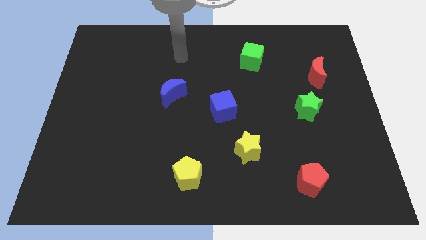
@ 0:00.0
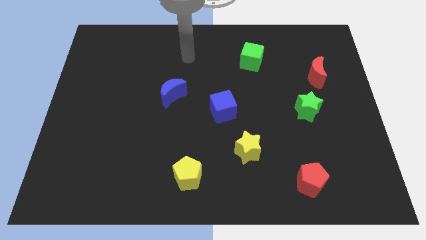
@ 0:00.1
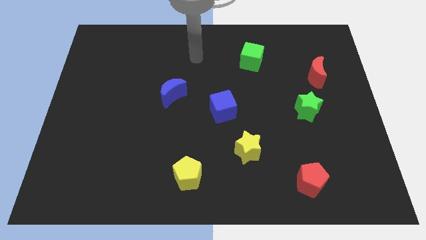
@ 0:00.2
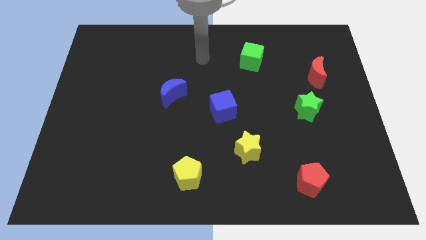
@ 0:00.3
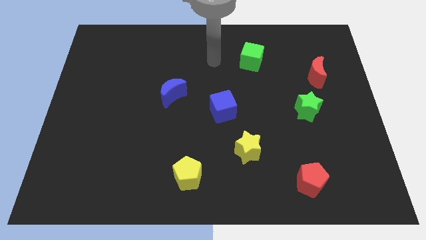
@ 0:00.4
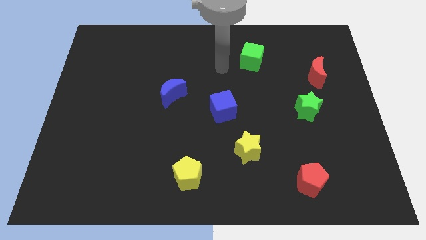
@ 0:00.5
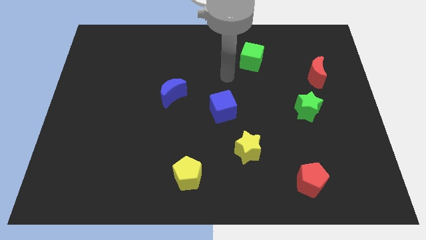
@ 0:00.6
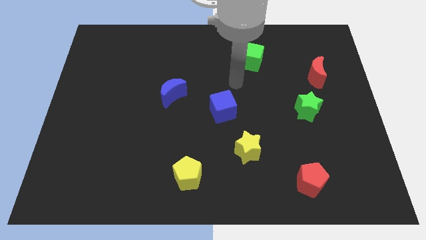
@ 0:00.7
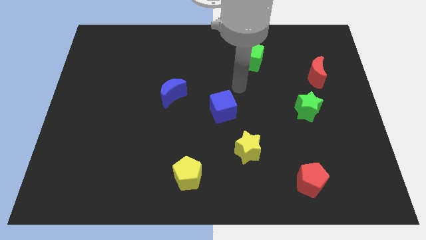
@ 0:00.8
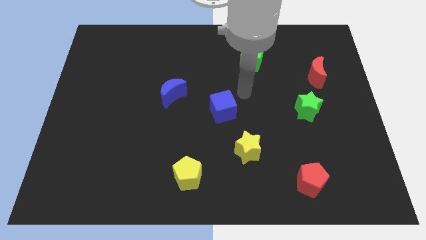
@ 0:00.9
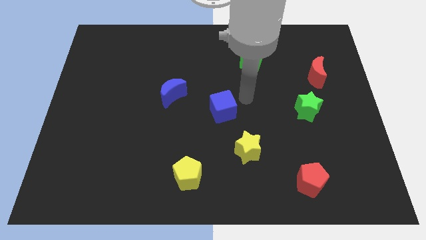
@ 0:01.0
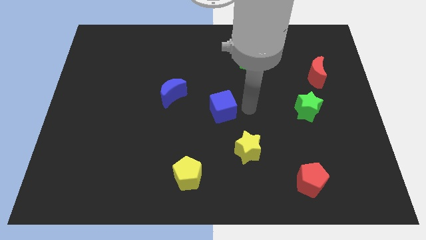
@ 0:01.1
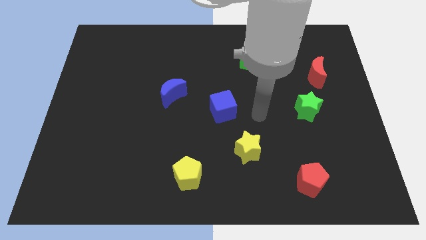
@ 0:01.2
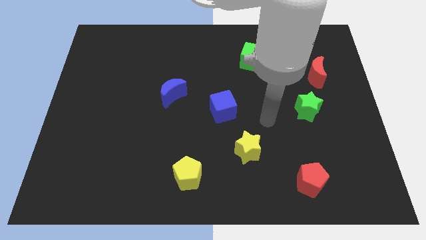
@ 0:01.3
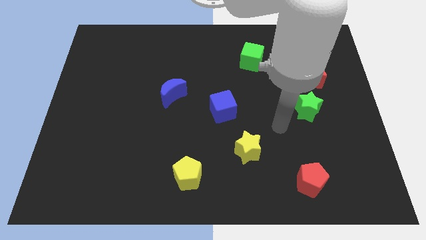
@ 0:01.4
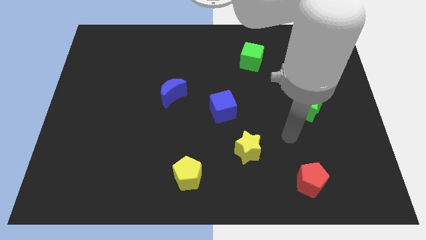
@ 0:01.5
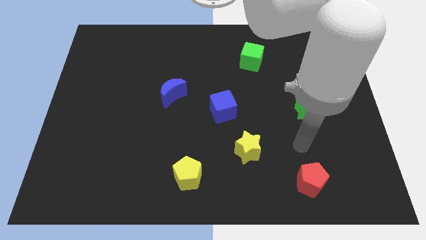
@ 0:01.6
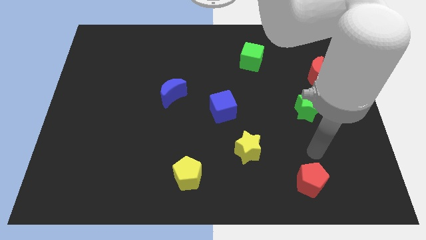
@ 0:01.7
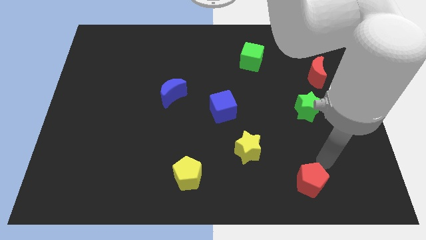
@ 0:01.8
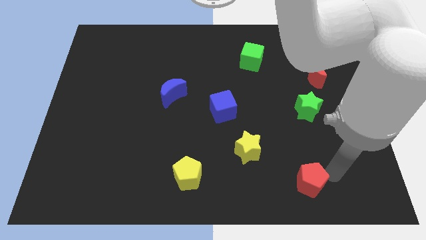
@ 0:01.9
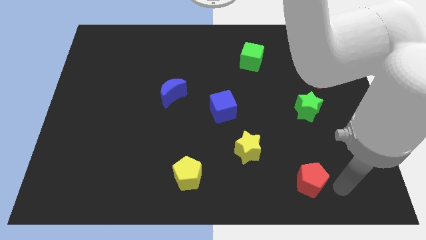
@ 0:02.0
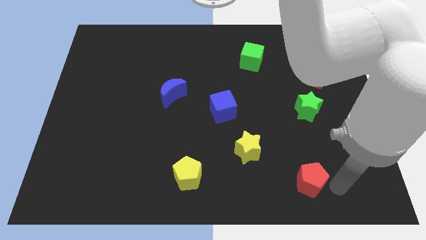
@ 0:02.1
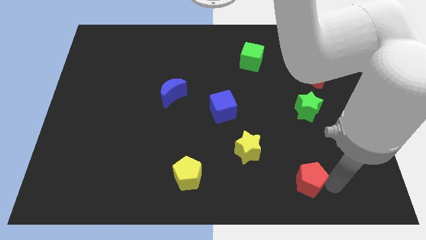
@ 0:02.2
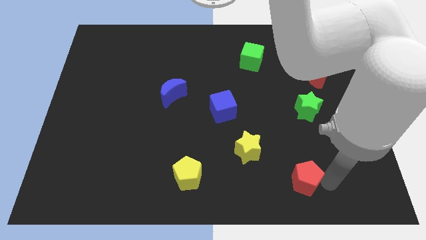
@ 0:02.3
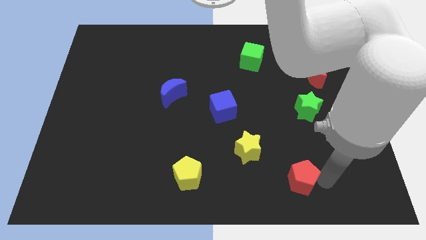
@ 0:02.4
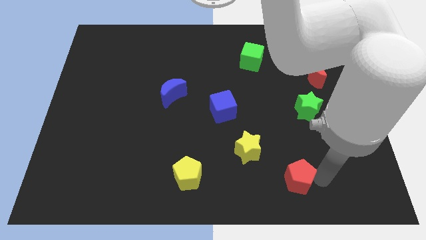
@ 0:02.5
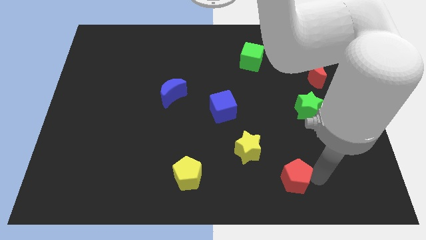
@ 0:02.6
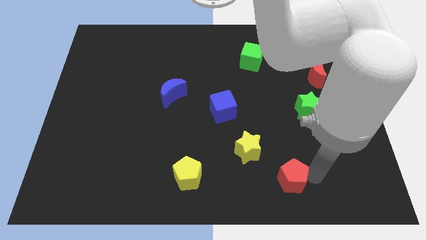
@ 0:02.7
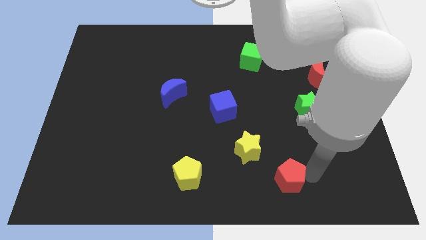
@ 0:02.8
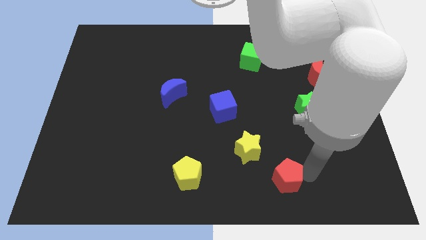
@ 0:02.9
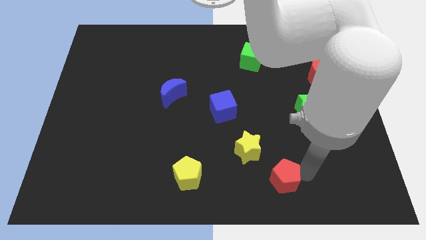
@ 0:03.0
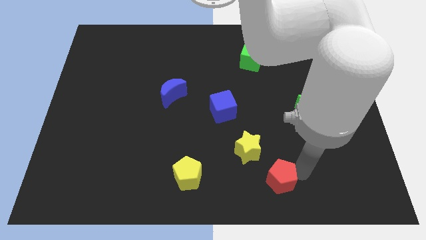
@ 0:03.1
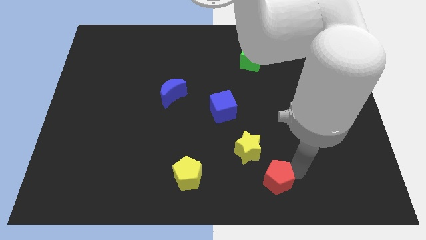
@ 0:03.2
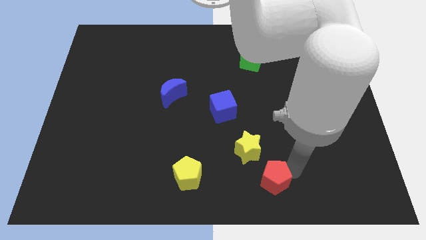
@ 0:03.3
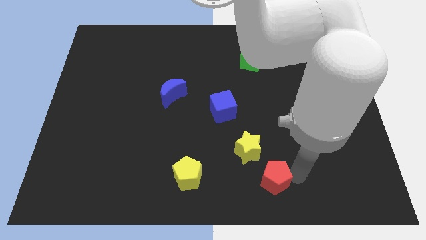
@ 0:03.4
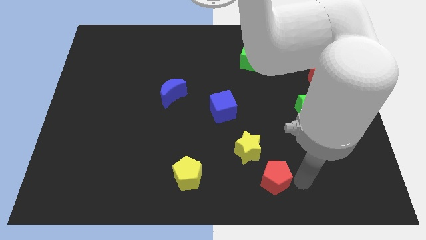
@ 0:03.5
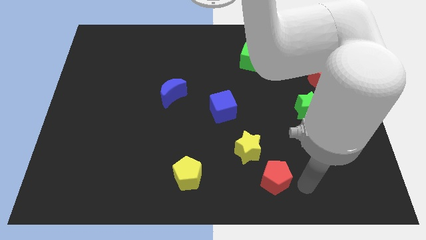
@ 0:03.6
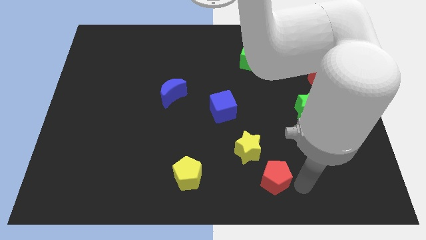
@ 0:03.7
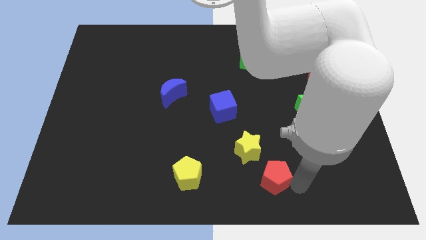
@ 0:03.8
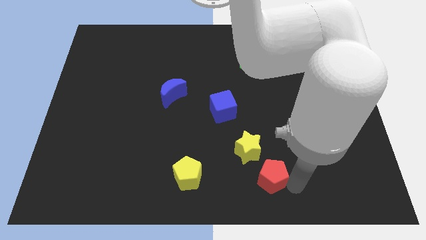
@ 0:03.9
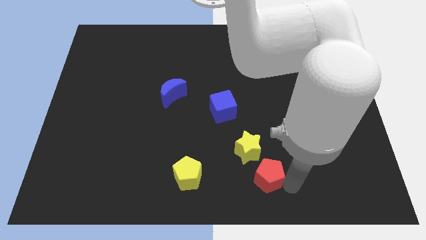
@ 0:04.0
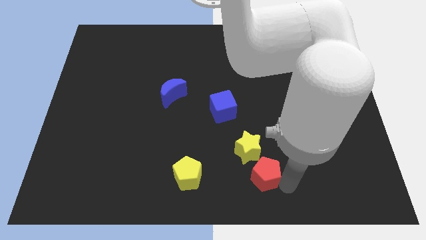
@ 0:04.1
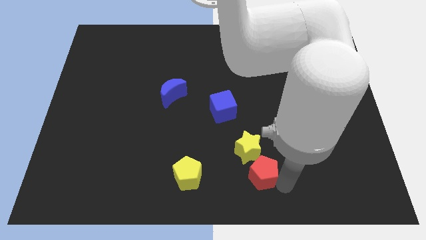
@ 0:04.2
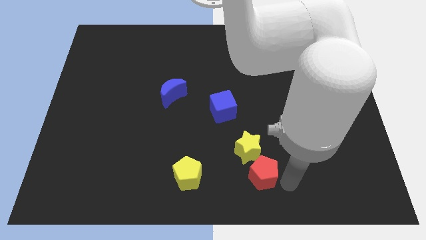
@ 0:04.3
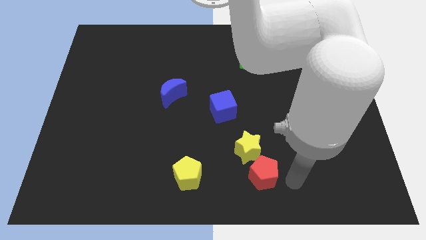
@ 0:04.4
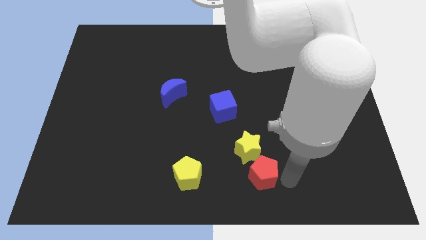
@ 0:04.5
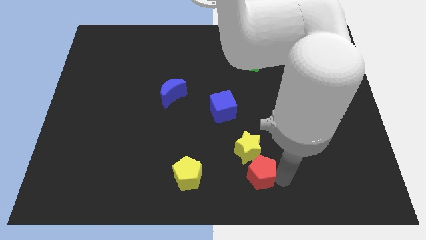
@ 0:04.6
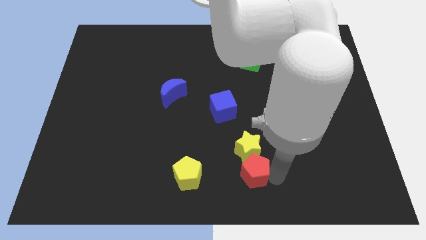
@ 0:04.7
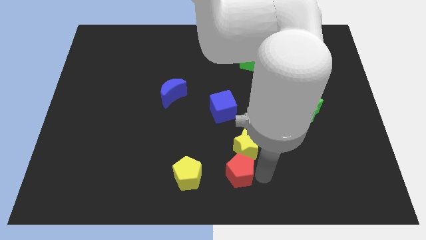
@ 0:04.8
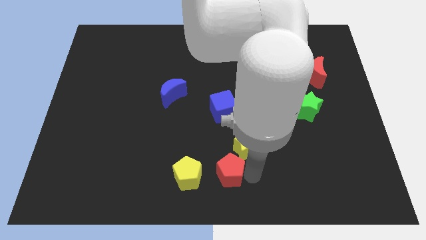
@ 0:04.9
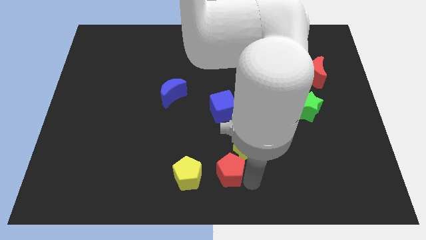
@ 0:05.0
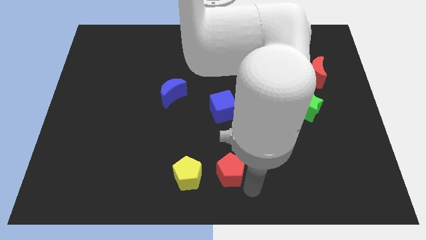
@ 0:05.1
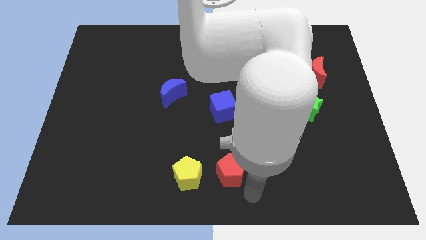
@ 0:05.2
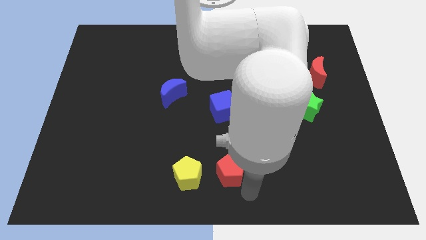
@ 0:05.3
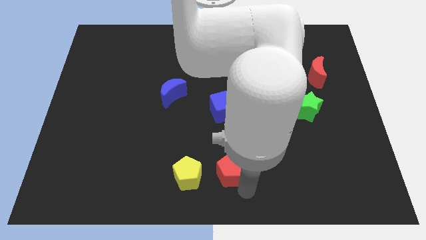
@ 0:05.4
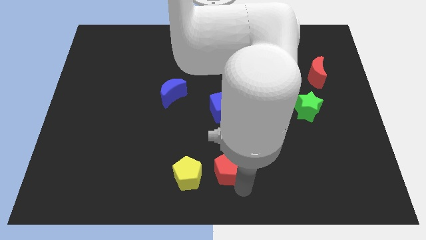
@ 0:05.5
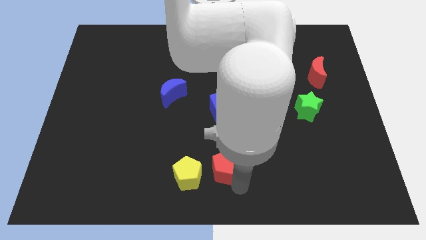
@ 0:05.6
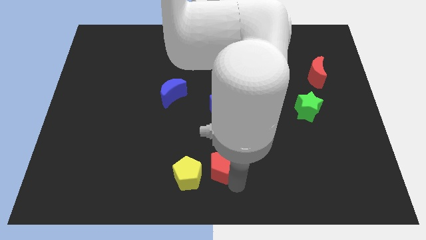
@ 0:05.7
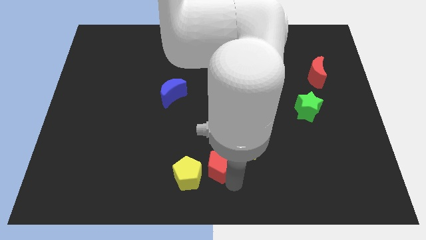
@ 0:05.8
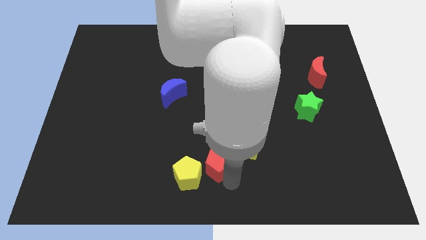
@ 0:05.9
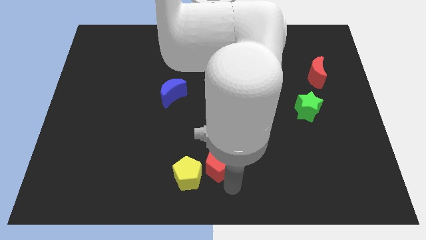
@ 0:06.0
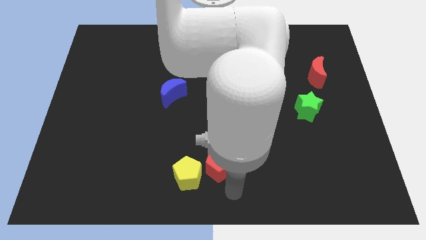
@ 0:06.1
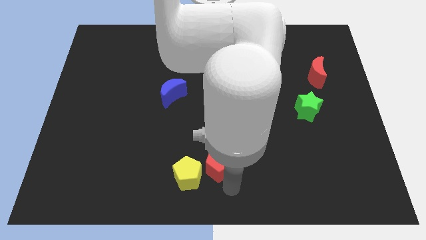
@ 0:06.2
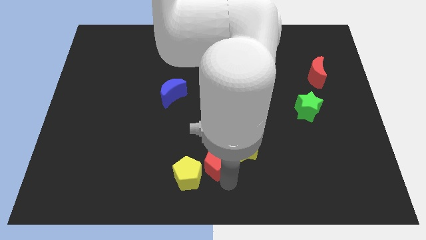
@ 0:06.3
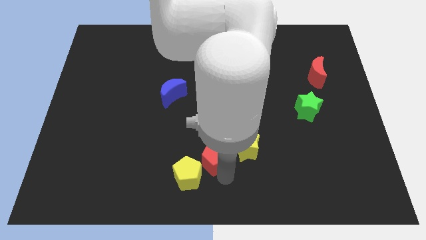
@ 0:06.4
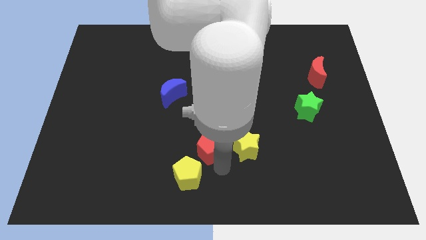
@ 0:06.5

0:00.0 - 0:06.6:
put the red pentagon to the top side of the yellow pentagon
